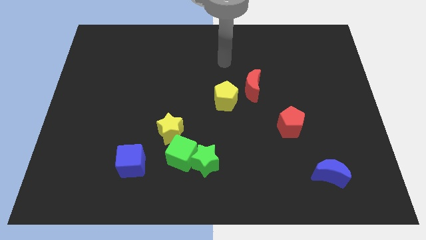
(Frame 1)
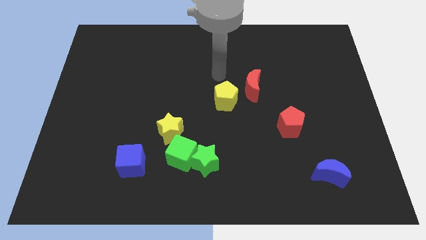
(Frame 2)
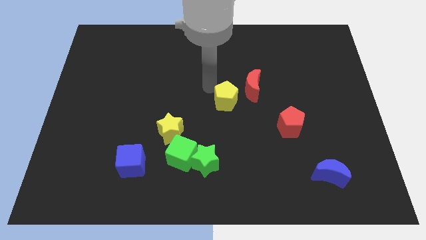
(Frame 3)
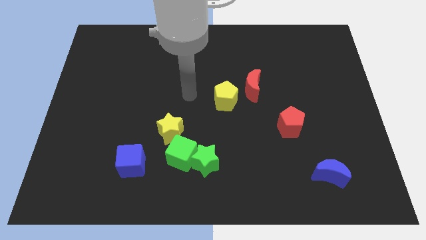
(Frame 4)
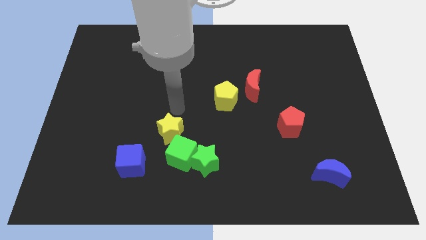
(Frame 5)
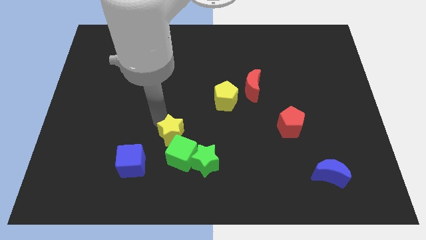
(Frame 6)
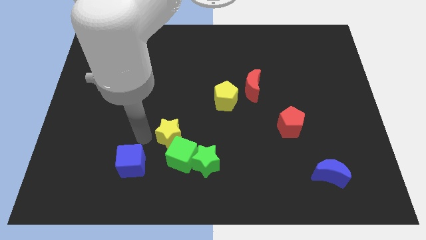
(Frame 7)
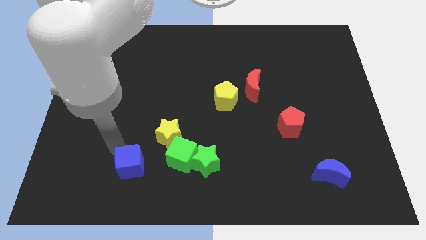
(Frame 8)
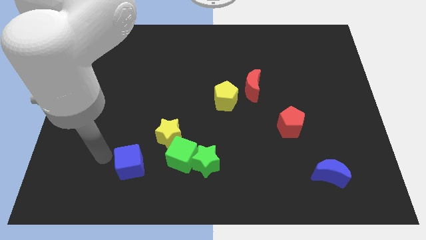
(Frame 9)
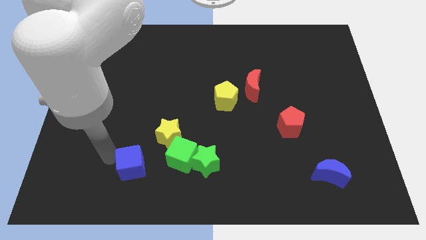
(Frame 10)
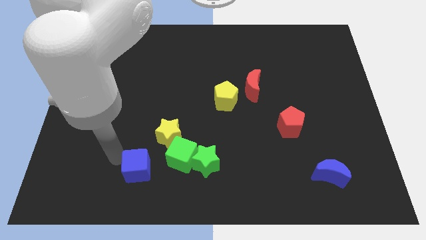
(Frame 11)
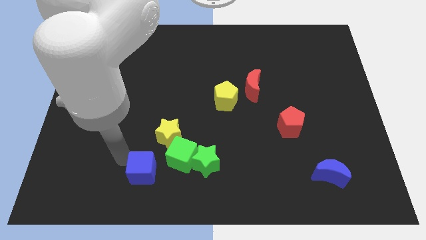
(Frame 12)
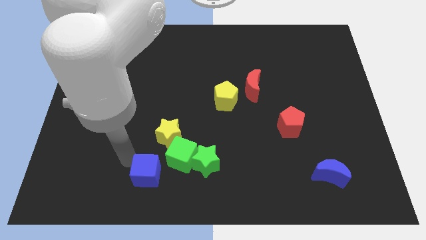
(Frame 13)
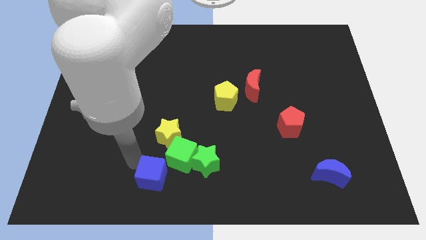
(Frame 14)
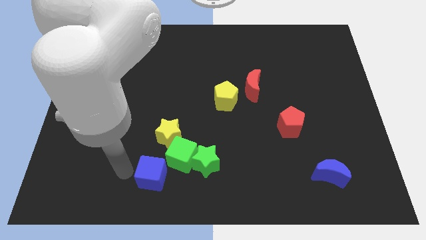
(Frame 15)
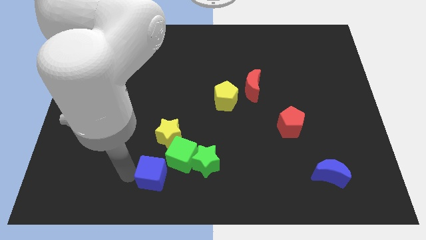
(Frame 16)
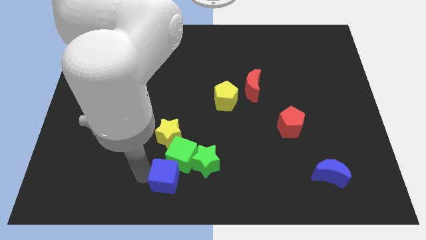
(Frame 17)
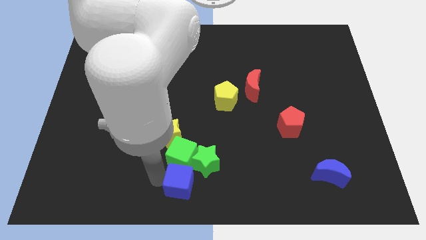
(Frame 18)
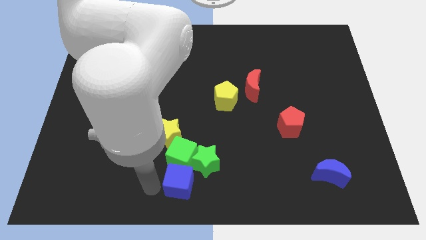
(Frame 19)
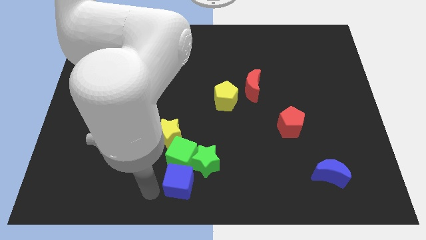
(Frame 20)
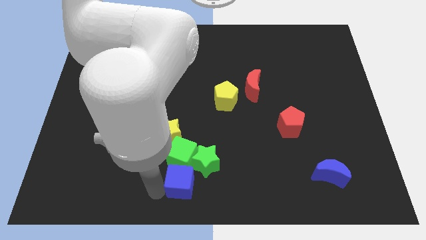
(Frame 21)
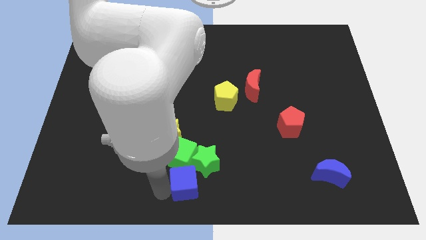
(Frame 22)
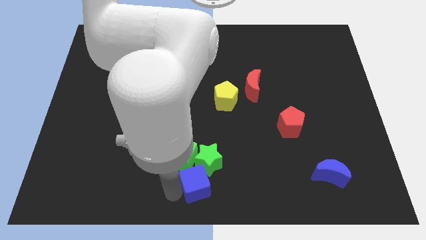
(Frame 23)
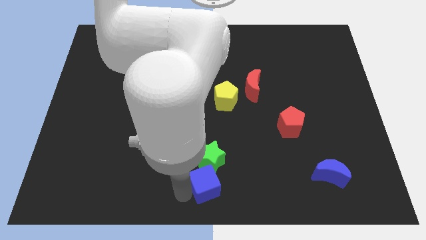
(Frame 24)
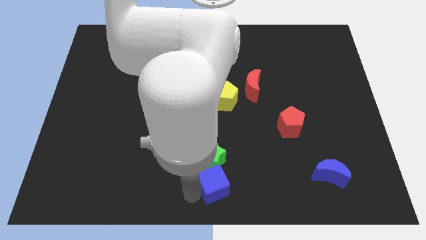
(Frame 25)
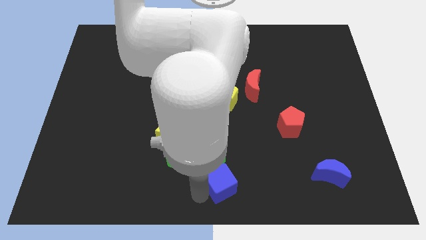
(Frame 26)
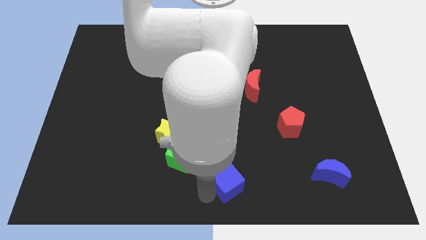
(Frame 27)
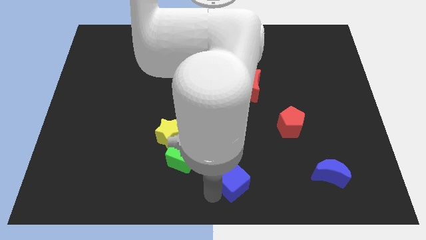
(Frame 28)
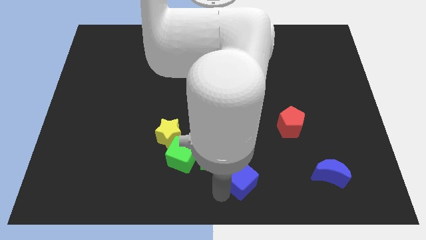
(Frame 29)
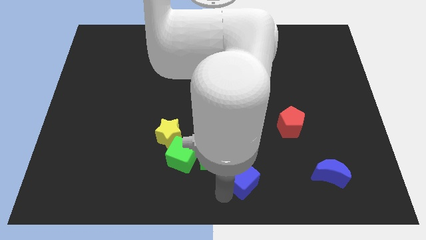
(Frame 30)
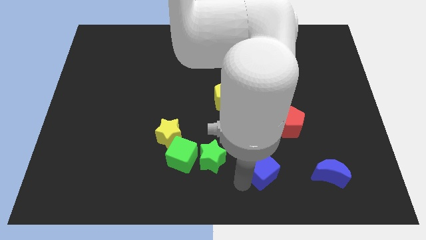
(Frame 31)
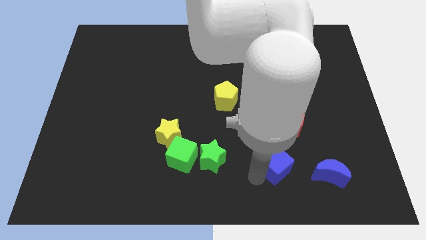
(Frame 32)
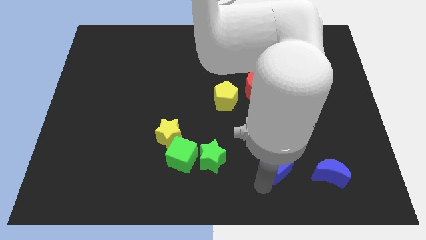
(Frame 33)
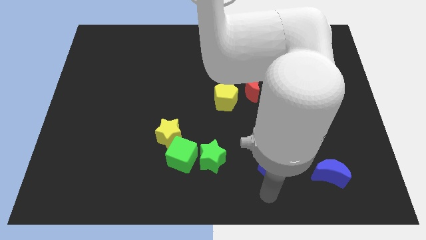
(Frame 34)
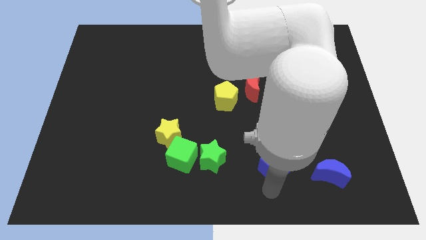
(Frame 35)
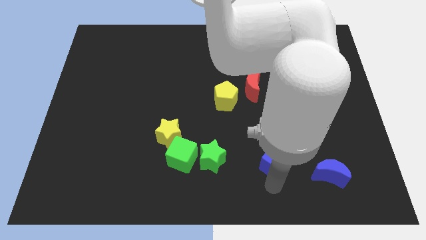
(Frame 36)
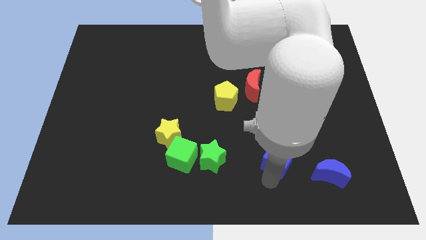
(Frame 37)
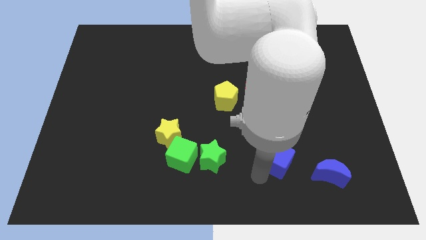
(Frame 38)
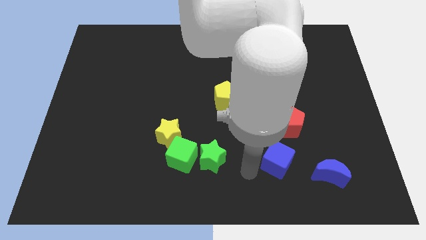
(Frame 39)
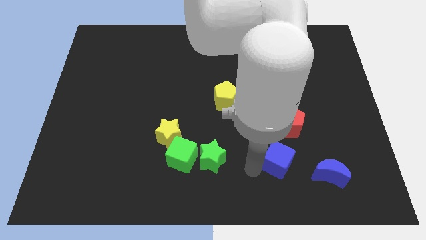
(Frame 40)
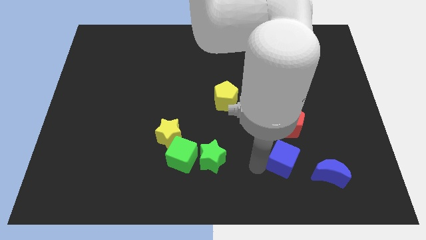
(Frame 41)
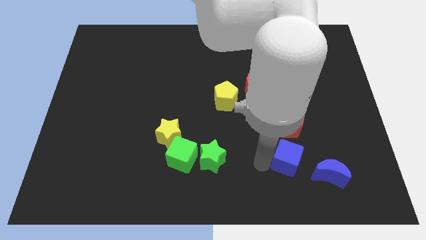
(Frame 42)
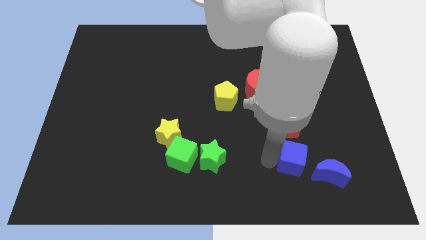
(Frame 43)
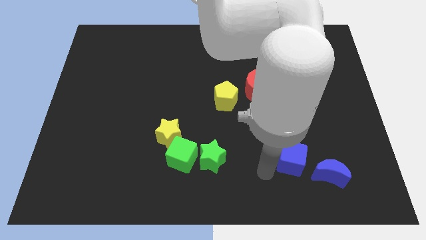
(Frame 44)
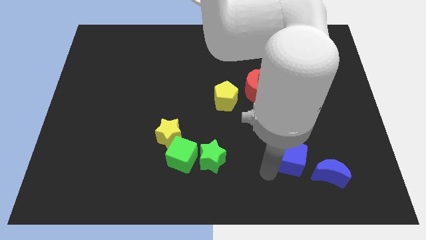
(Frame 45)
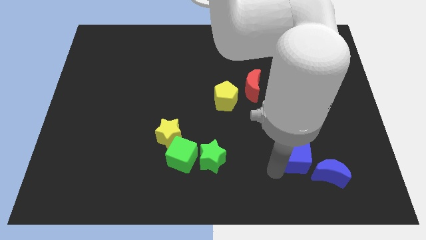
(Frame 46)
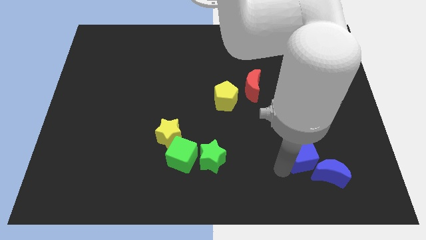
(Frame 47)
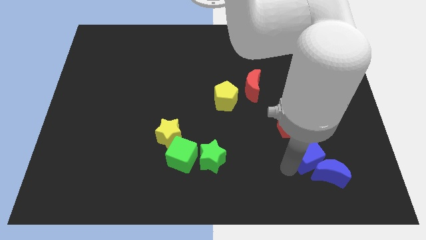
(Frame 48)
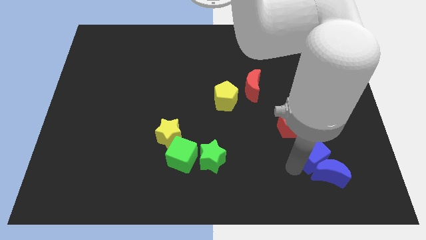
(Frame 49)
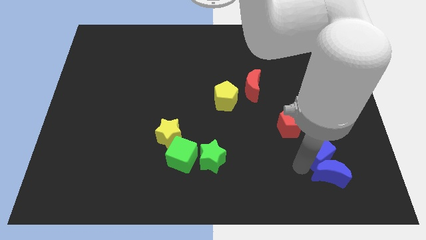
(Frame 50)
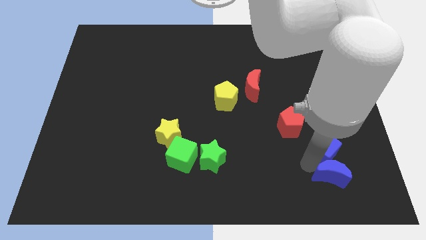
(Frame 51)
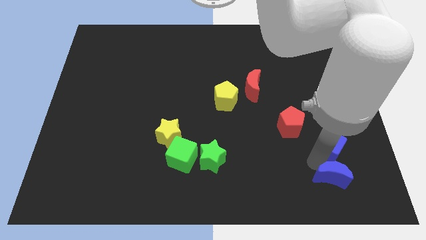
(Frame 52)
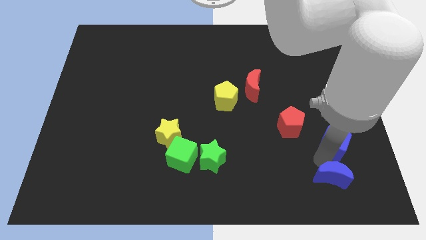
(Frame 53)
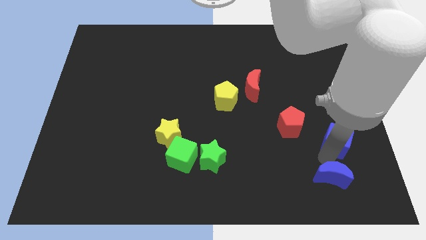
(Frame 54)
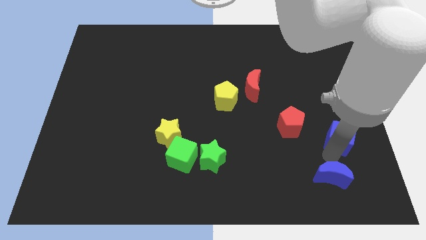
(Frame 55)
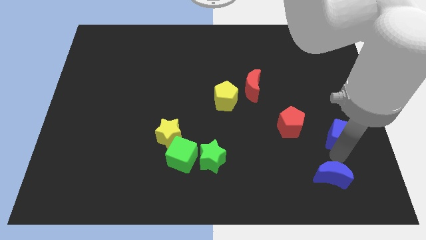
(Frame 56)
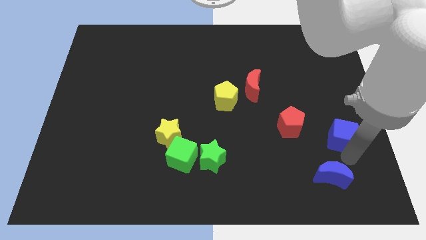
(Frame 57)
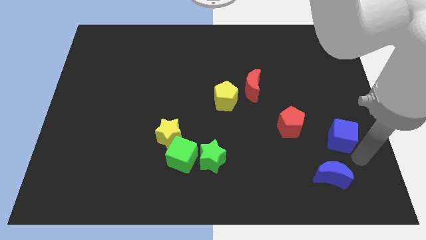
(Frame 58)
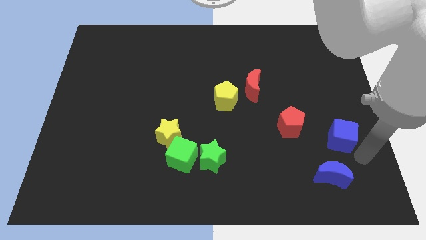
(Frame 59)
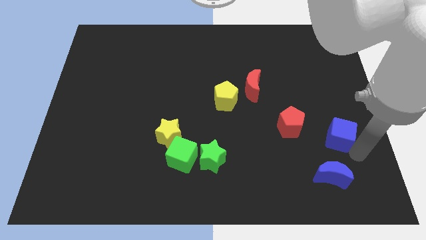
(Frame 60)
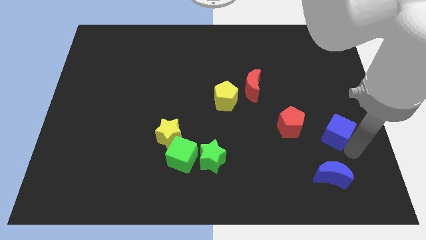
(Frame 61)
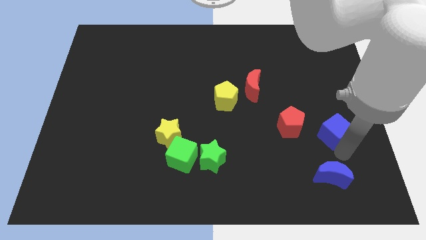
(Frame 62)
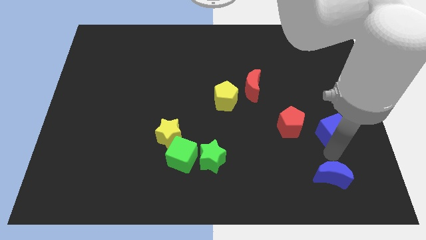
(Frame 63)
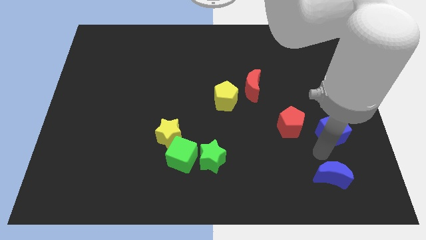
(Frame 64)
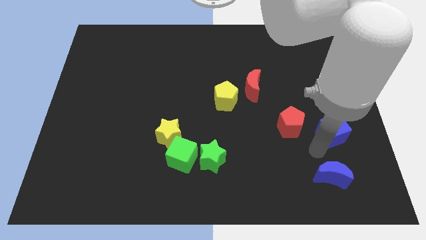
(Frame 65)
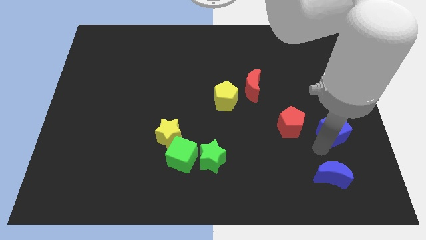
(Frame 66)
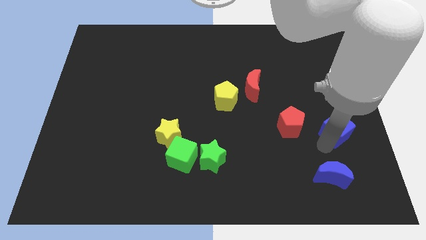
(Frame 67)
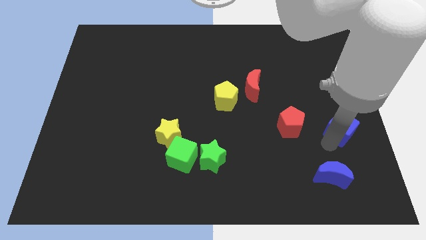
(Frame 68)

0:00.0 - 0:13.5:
move the blue cube to the center right
